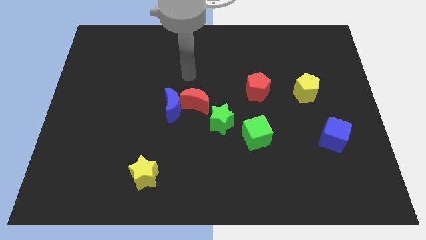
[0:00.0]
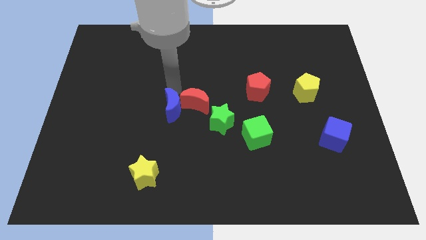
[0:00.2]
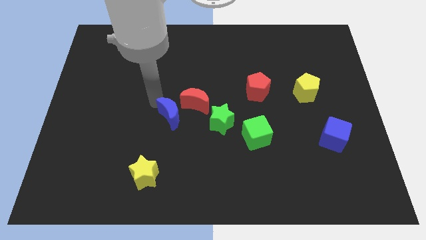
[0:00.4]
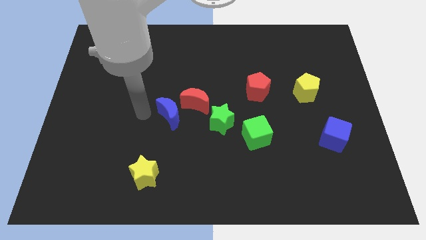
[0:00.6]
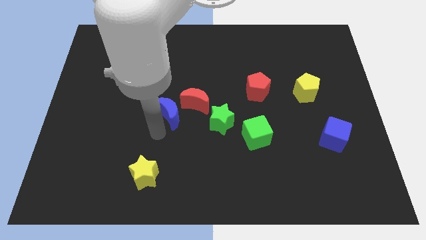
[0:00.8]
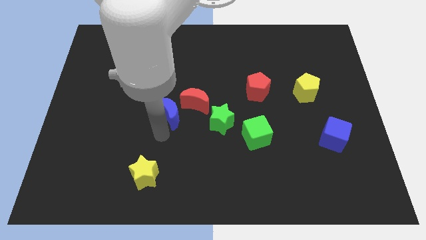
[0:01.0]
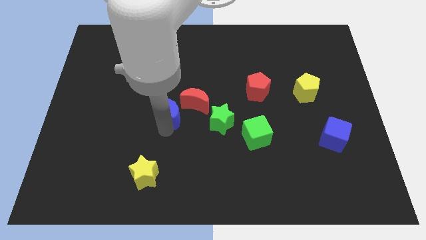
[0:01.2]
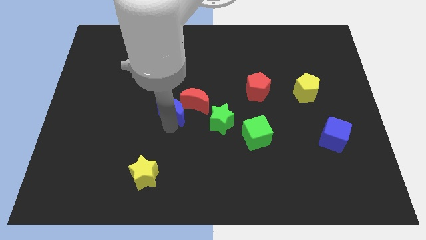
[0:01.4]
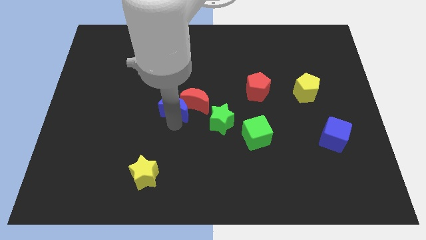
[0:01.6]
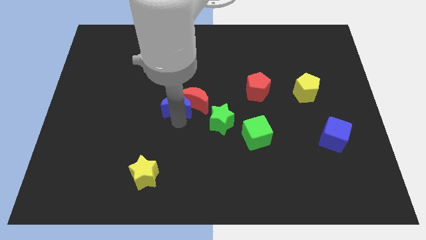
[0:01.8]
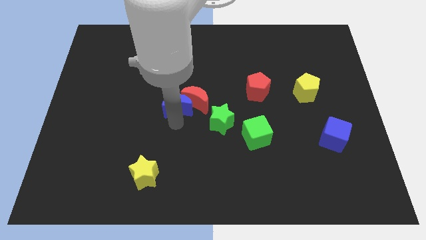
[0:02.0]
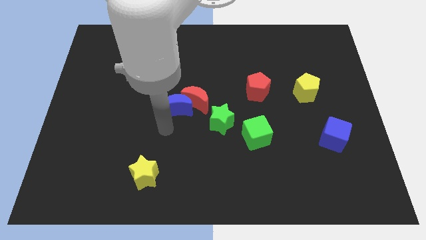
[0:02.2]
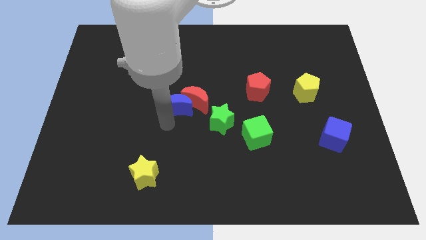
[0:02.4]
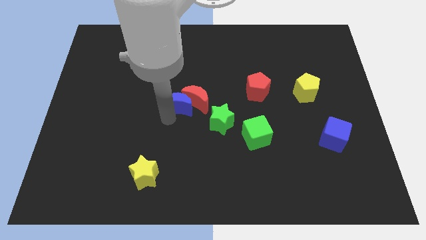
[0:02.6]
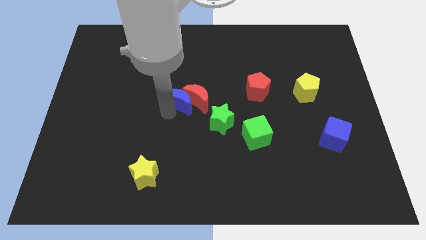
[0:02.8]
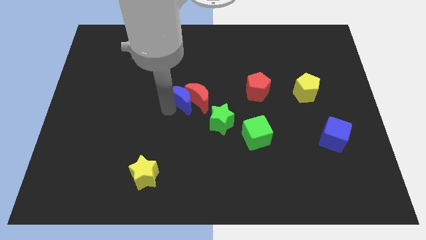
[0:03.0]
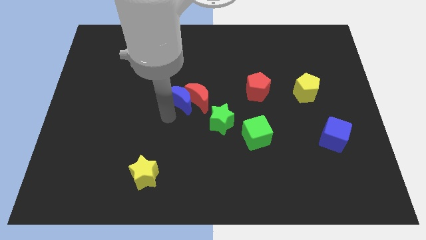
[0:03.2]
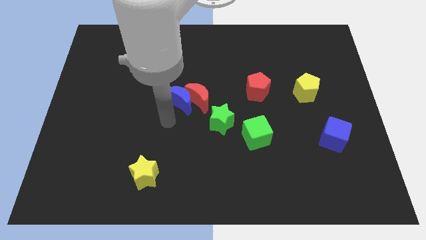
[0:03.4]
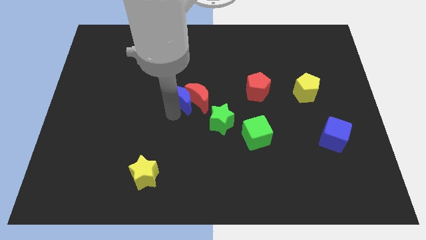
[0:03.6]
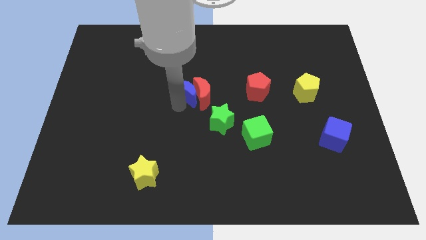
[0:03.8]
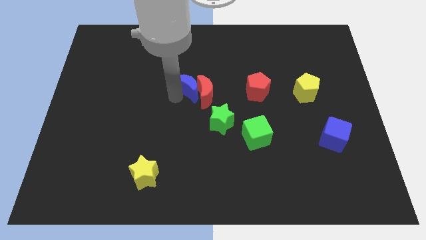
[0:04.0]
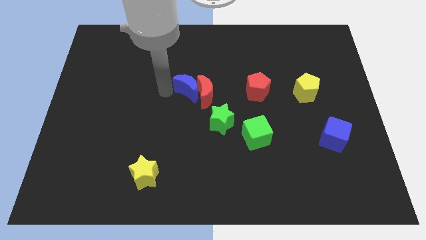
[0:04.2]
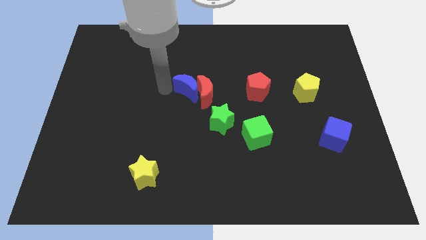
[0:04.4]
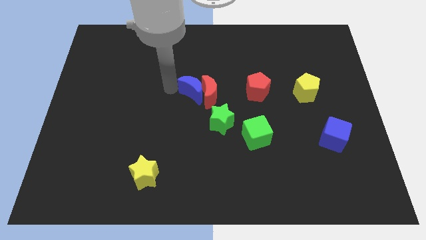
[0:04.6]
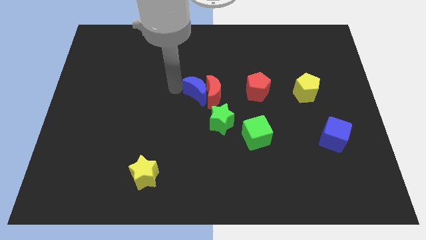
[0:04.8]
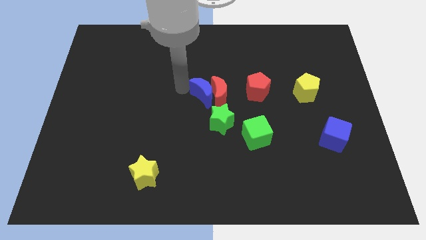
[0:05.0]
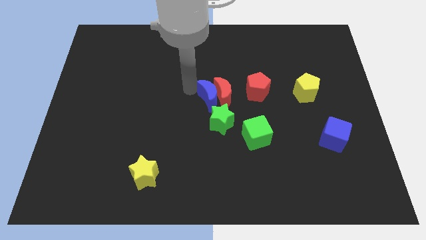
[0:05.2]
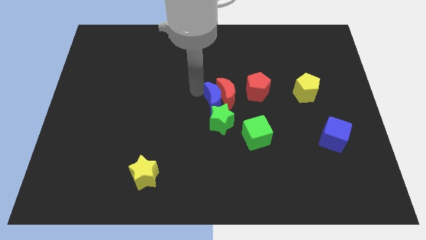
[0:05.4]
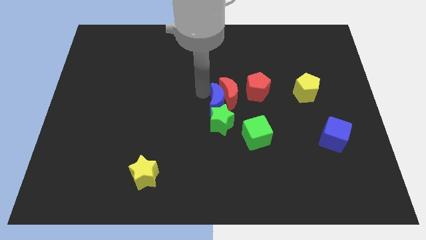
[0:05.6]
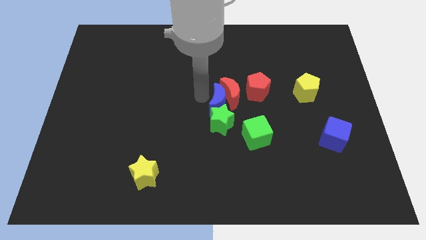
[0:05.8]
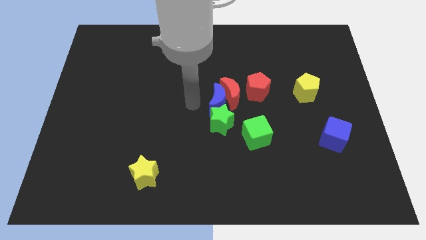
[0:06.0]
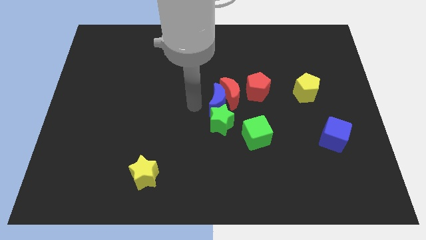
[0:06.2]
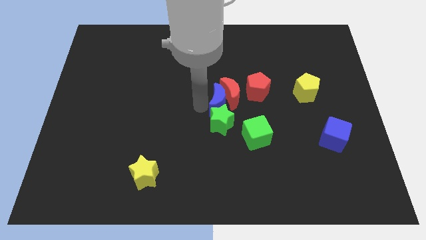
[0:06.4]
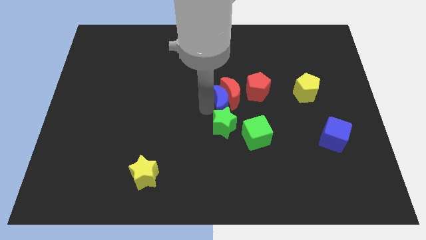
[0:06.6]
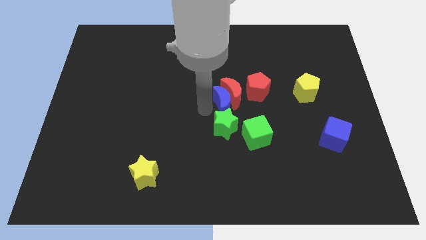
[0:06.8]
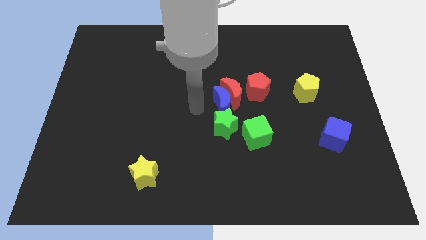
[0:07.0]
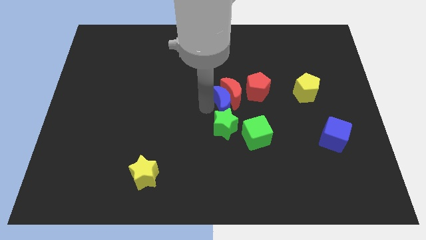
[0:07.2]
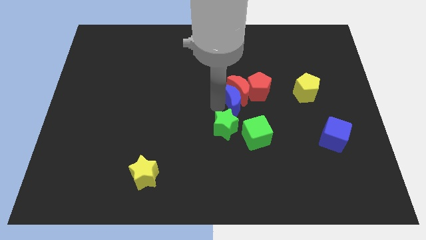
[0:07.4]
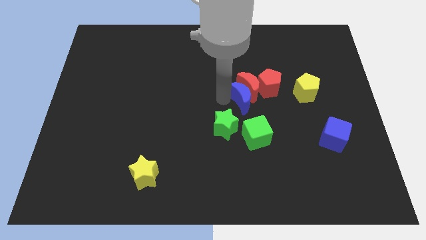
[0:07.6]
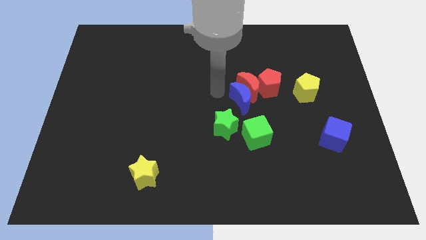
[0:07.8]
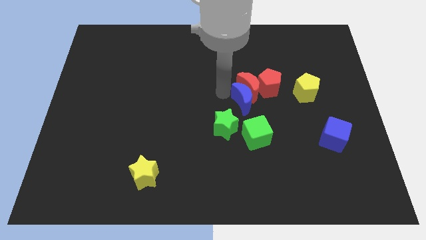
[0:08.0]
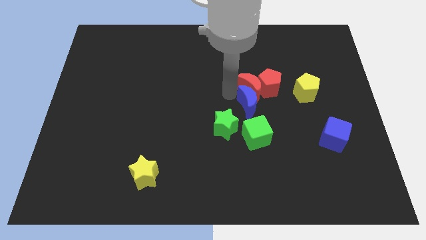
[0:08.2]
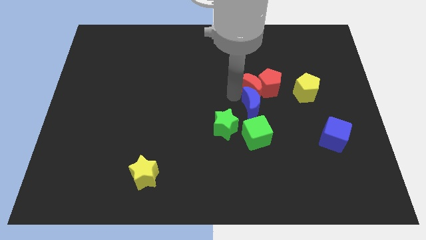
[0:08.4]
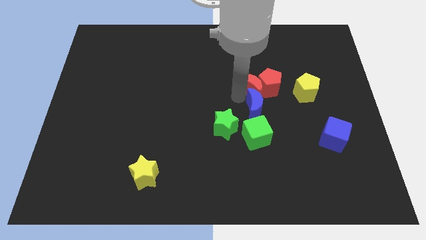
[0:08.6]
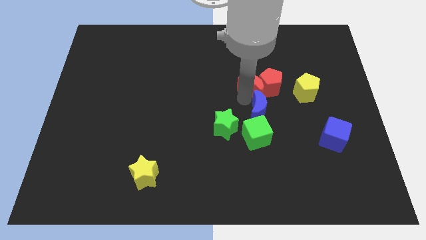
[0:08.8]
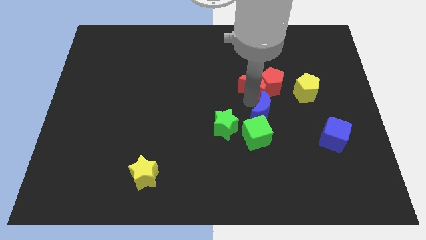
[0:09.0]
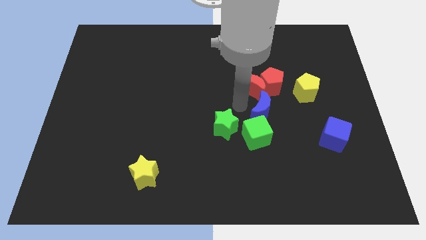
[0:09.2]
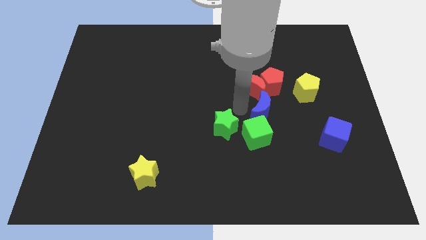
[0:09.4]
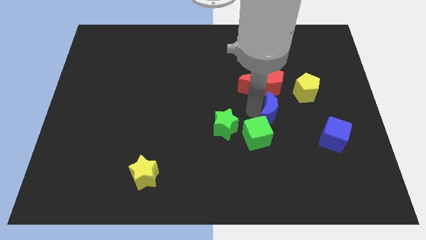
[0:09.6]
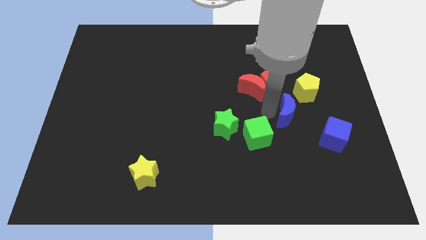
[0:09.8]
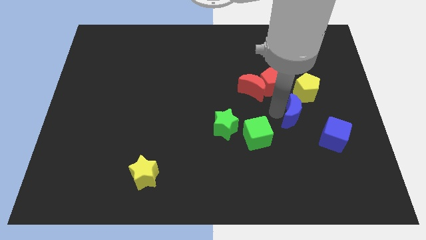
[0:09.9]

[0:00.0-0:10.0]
slide the blue moon to the bottom of the yellow pentagon

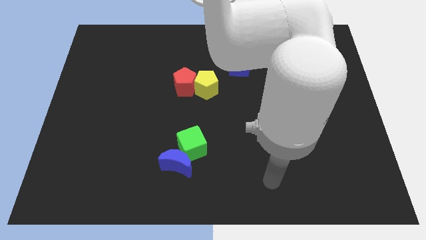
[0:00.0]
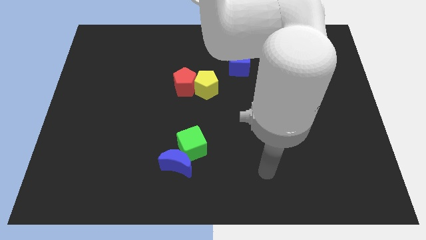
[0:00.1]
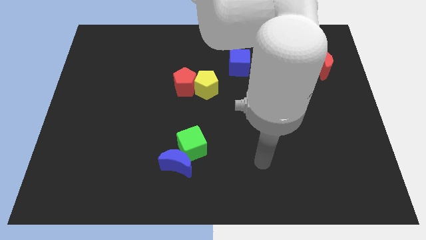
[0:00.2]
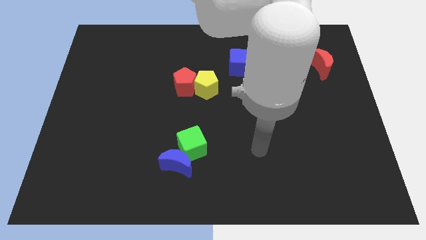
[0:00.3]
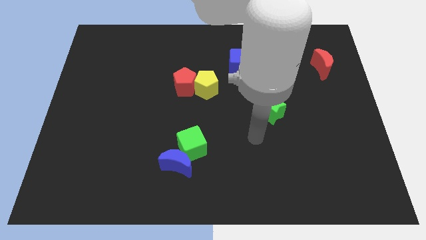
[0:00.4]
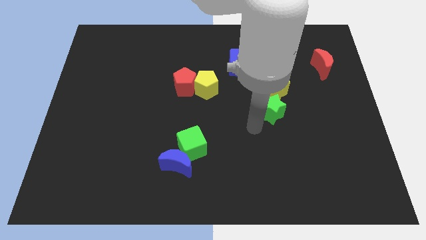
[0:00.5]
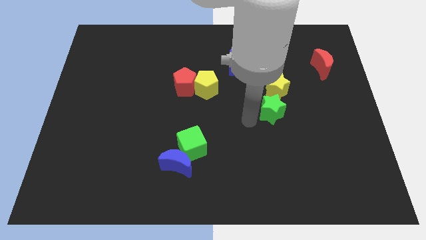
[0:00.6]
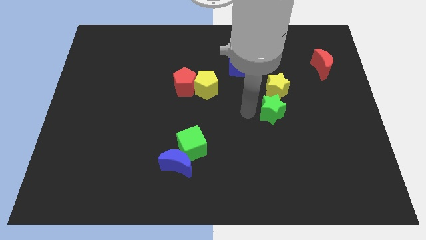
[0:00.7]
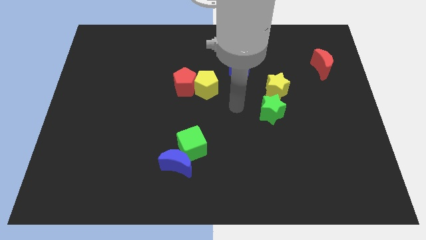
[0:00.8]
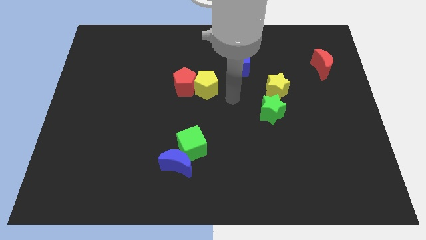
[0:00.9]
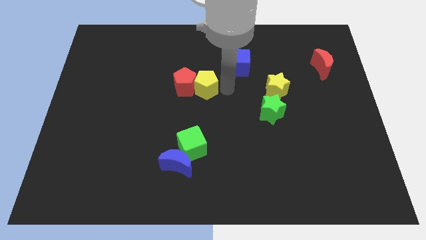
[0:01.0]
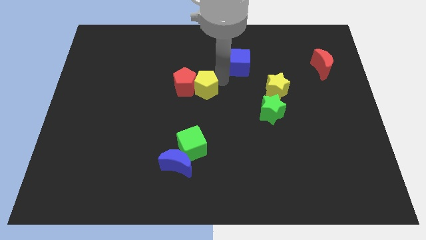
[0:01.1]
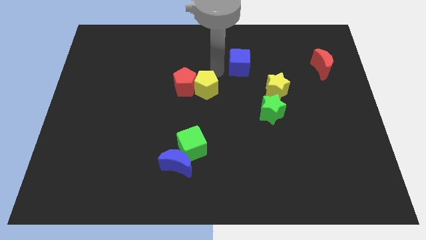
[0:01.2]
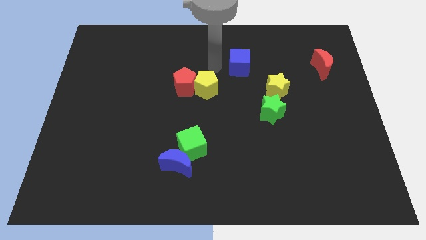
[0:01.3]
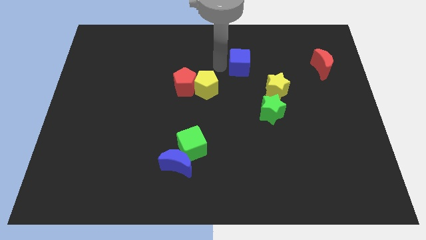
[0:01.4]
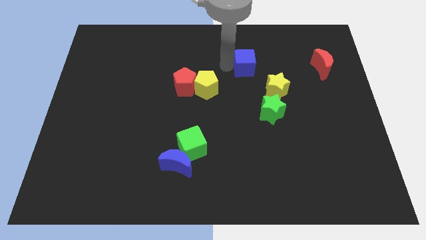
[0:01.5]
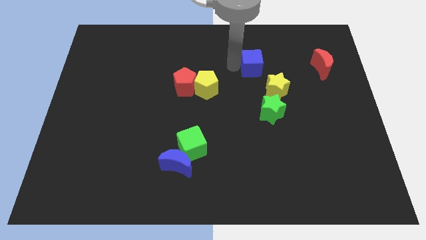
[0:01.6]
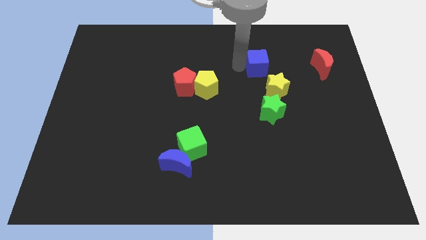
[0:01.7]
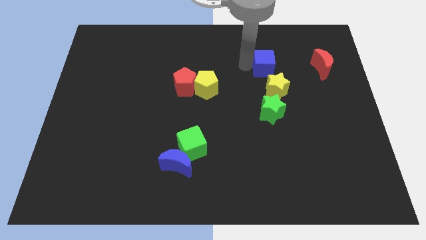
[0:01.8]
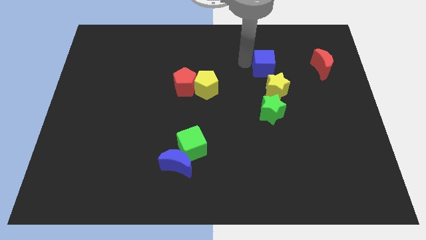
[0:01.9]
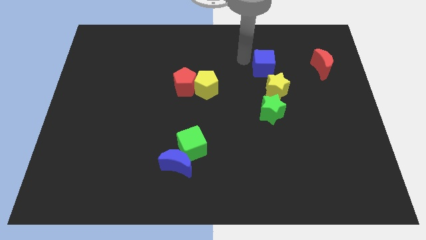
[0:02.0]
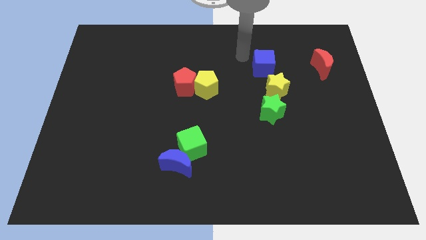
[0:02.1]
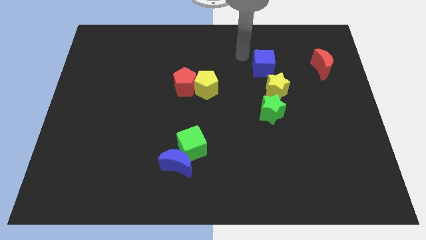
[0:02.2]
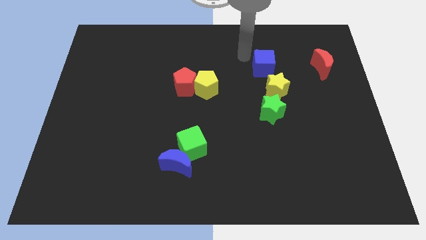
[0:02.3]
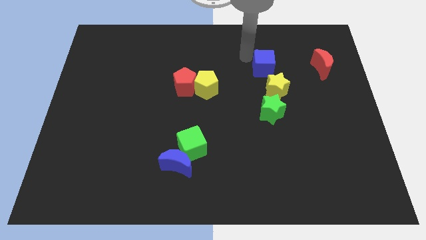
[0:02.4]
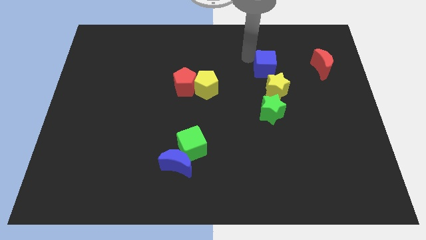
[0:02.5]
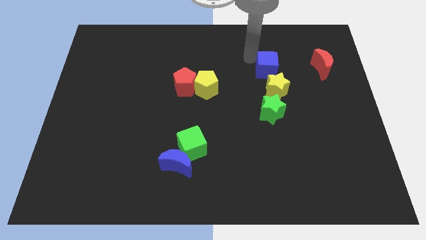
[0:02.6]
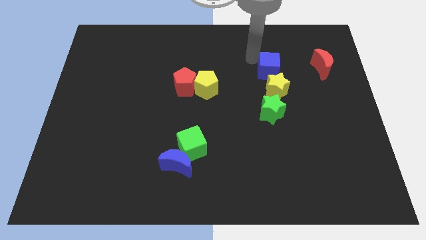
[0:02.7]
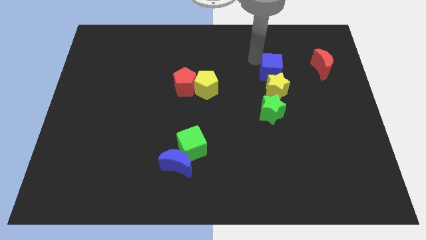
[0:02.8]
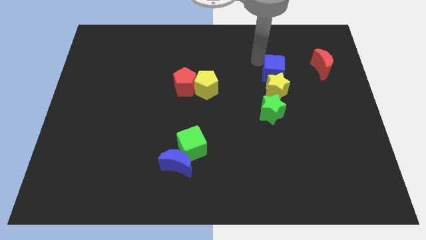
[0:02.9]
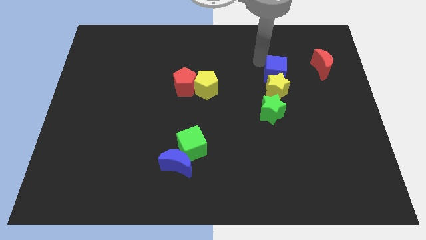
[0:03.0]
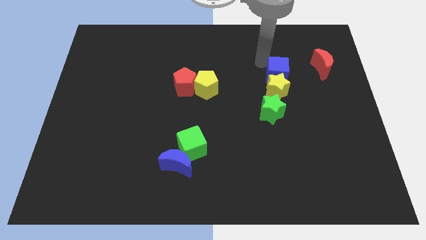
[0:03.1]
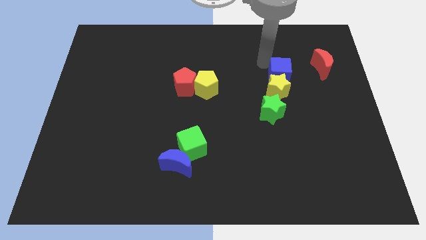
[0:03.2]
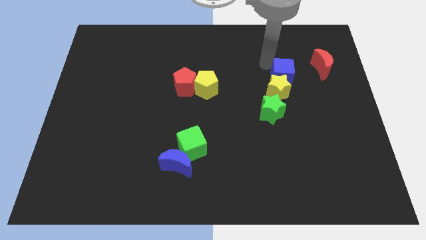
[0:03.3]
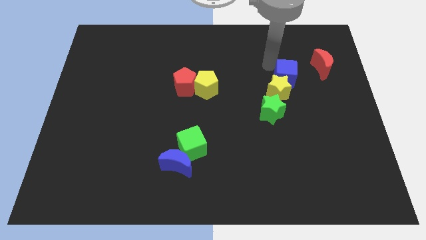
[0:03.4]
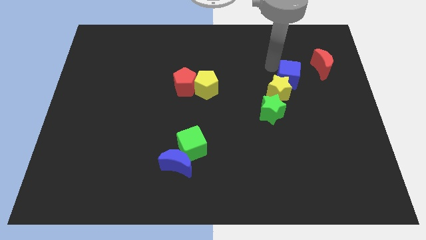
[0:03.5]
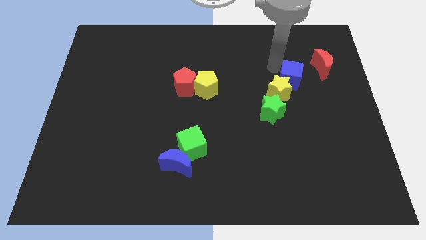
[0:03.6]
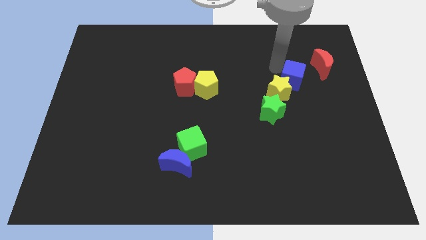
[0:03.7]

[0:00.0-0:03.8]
slide the blue cube to the right side of the yellow star
